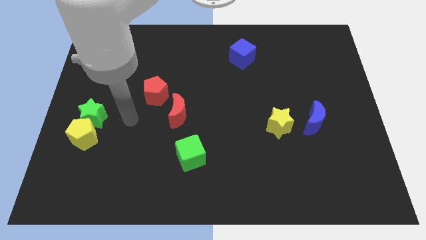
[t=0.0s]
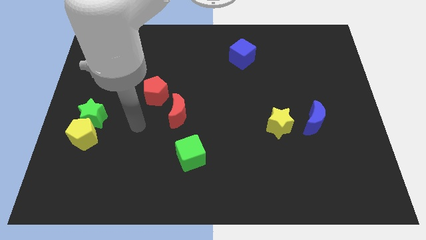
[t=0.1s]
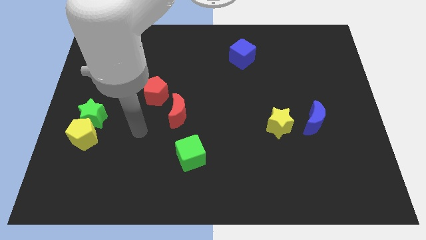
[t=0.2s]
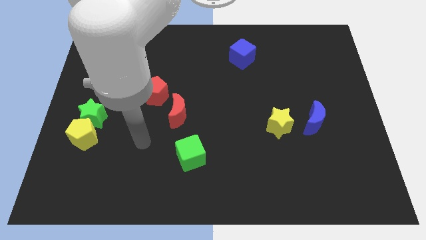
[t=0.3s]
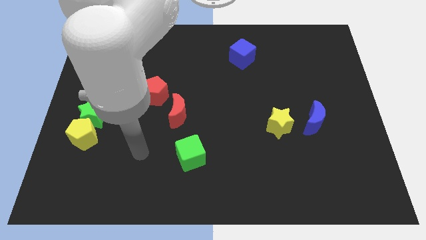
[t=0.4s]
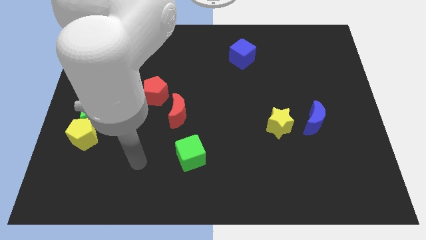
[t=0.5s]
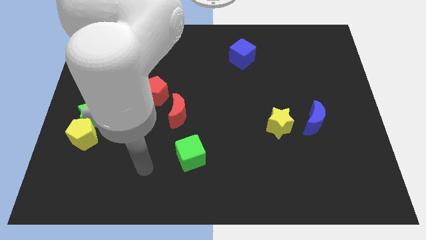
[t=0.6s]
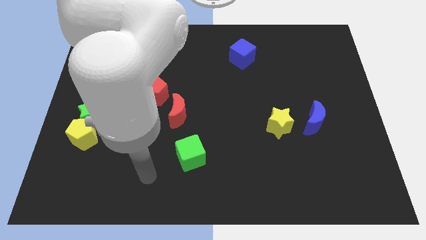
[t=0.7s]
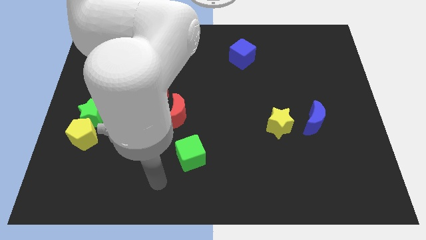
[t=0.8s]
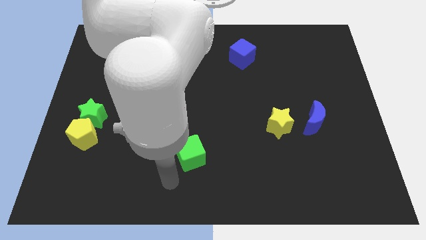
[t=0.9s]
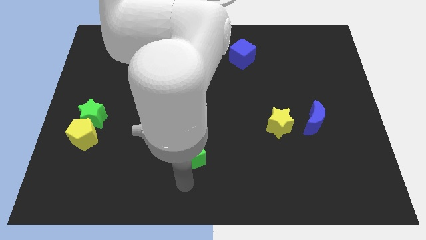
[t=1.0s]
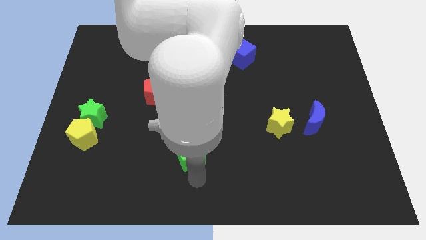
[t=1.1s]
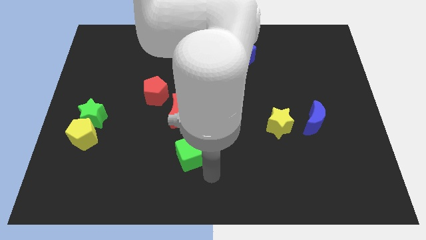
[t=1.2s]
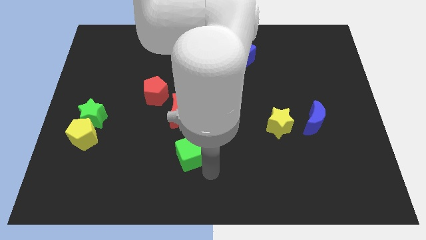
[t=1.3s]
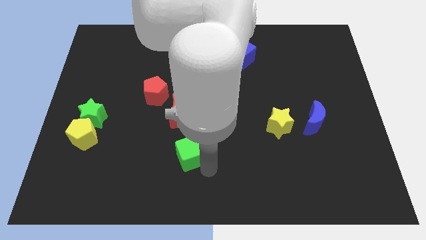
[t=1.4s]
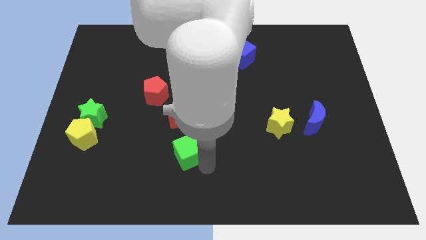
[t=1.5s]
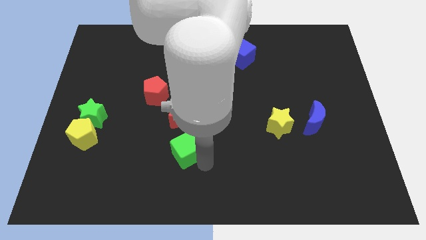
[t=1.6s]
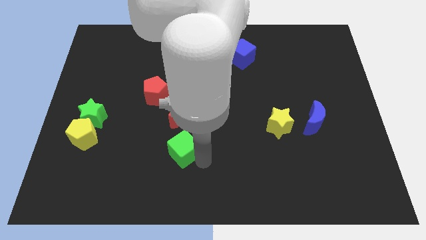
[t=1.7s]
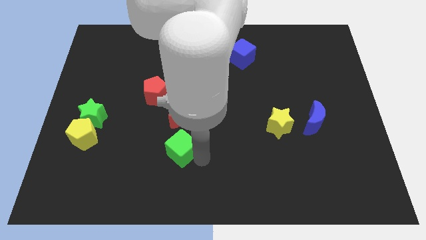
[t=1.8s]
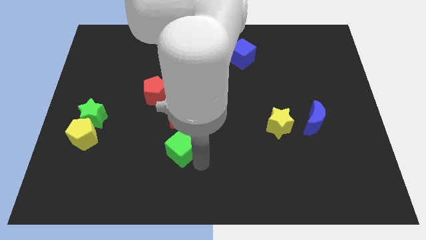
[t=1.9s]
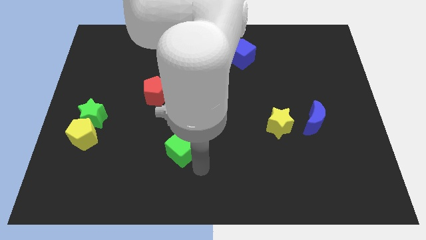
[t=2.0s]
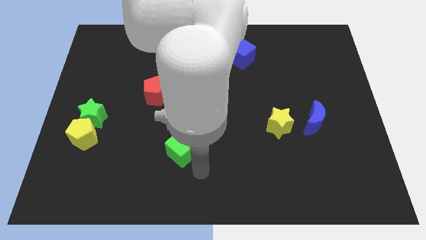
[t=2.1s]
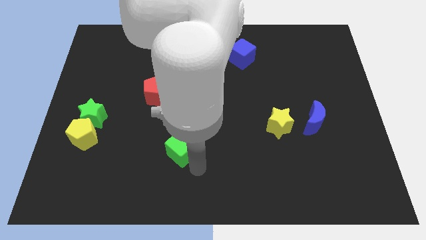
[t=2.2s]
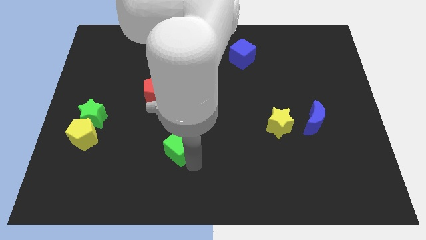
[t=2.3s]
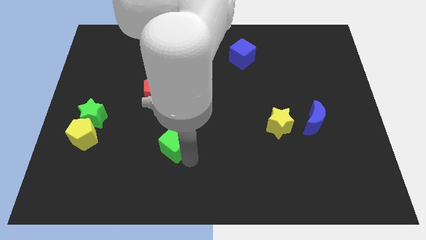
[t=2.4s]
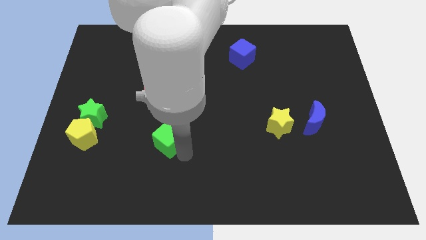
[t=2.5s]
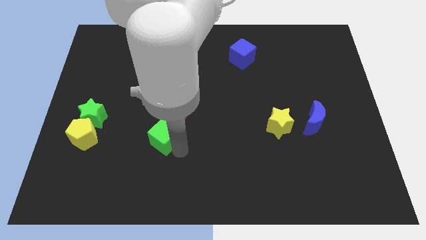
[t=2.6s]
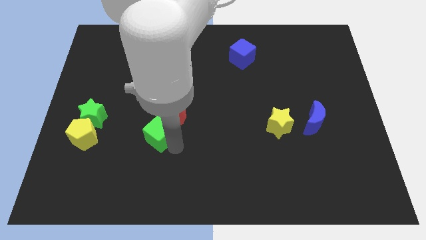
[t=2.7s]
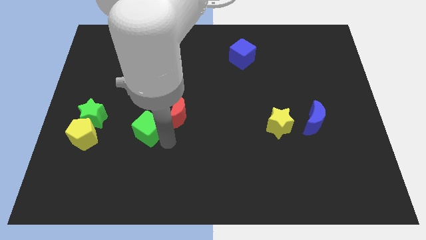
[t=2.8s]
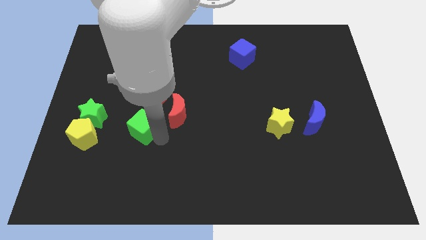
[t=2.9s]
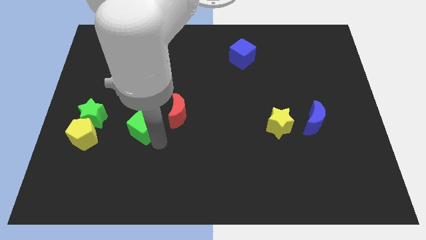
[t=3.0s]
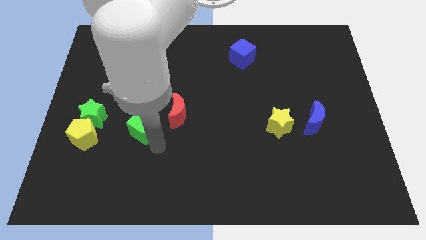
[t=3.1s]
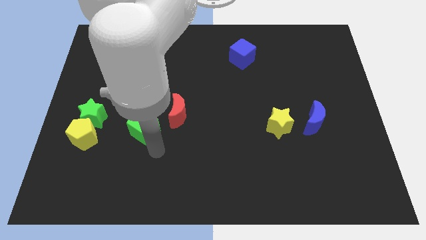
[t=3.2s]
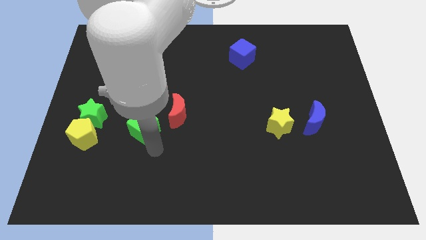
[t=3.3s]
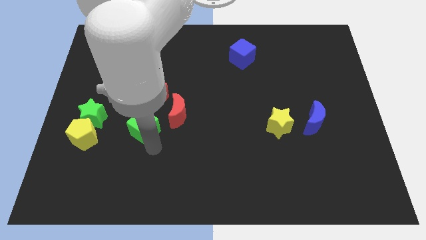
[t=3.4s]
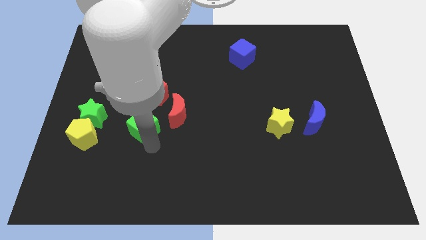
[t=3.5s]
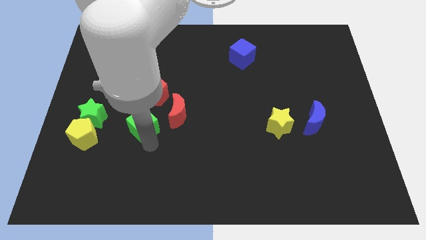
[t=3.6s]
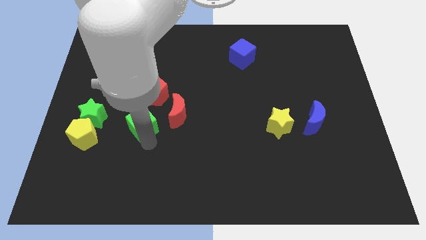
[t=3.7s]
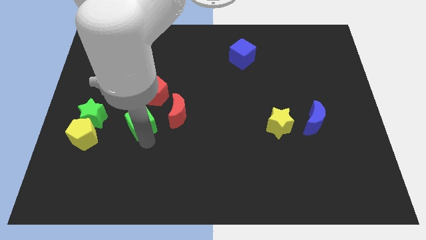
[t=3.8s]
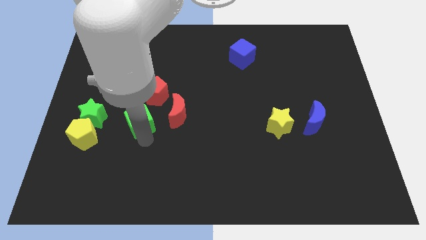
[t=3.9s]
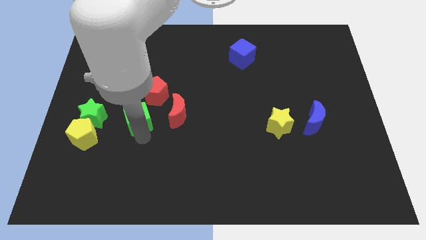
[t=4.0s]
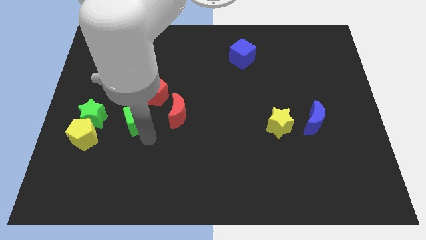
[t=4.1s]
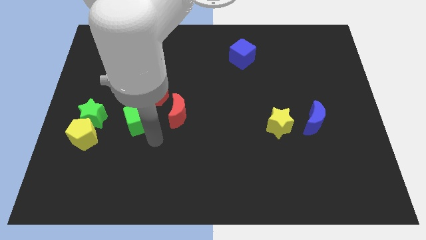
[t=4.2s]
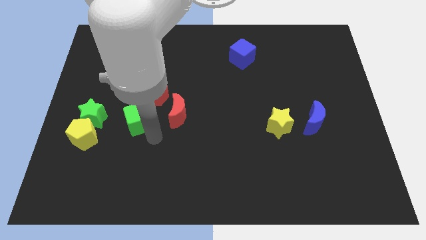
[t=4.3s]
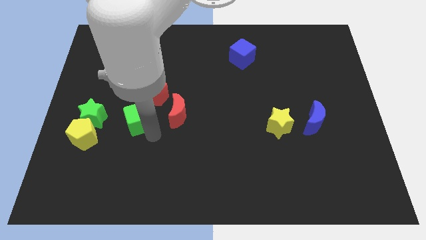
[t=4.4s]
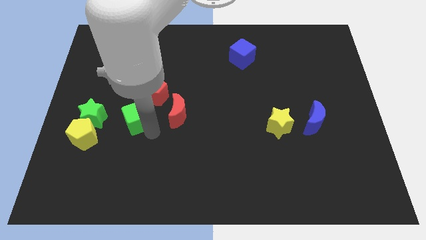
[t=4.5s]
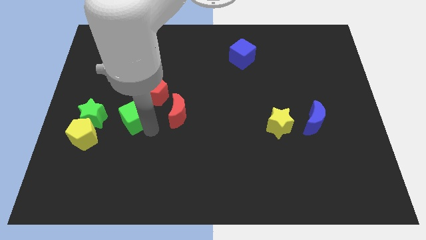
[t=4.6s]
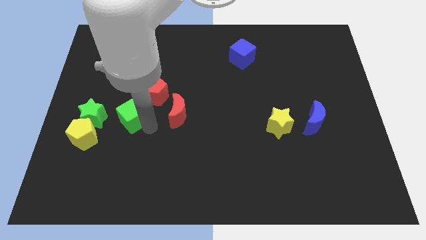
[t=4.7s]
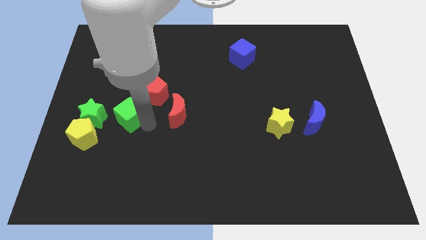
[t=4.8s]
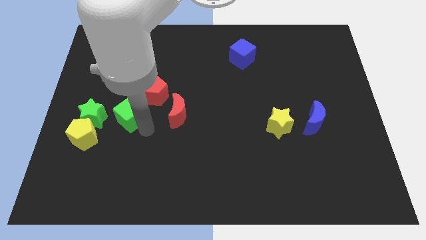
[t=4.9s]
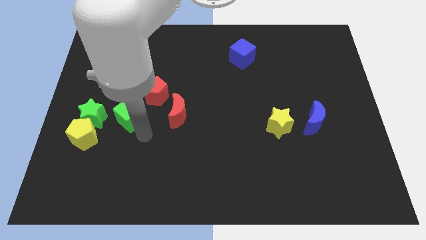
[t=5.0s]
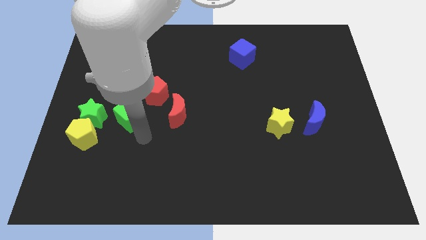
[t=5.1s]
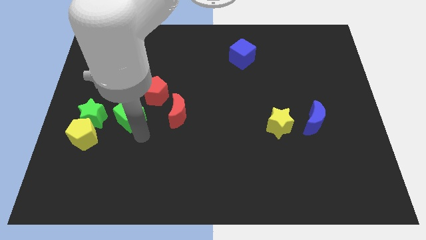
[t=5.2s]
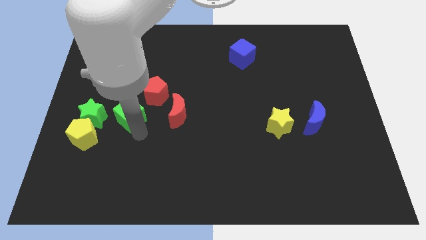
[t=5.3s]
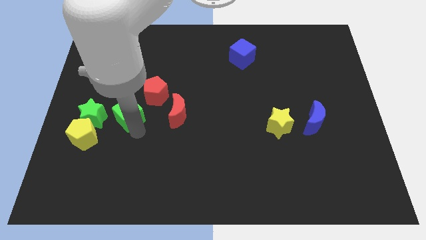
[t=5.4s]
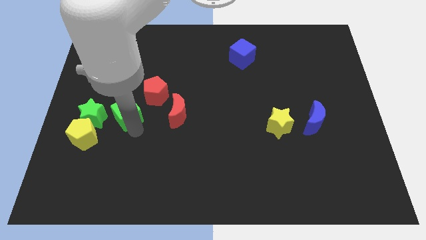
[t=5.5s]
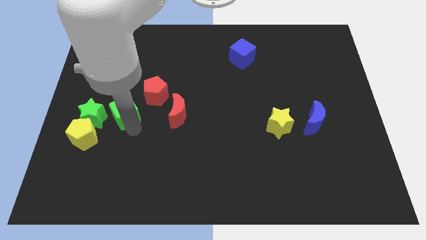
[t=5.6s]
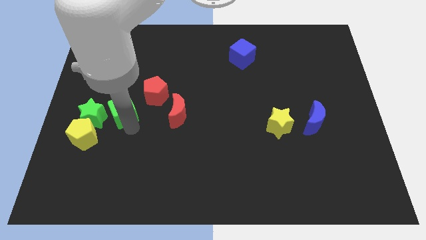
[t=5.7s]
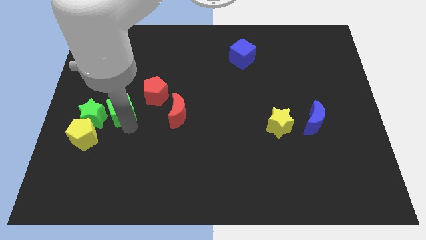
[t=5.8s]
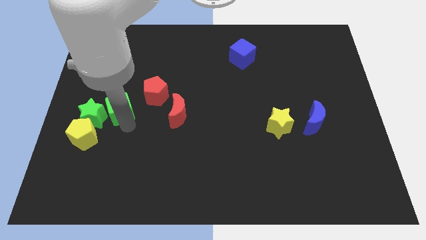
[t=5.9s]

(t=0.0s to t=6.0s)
push the green cube up and then to the left

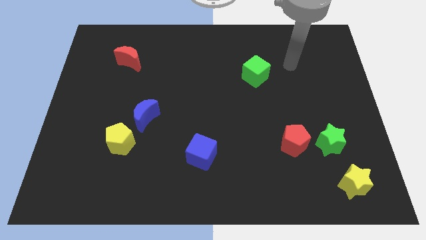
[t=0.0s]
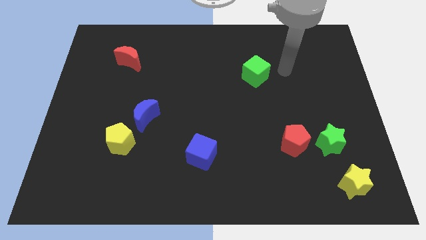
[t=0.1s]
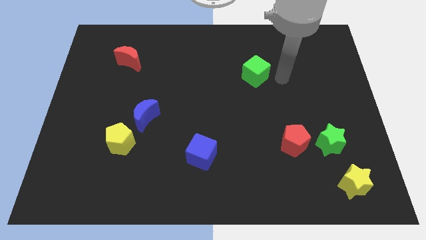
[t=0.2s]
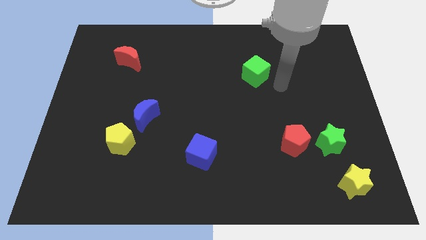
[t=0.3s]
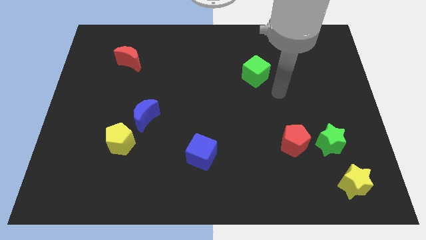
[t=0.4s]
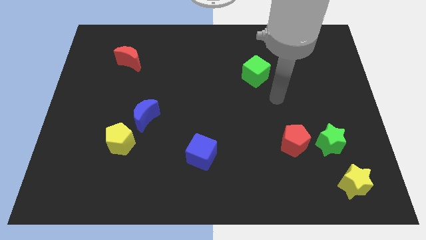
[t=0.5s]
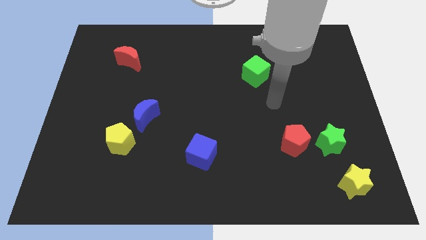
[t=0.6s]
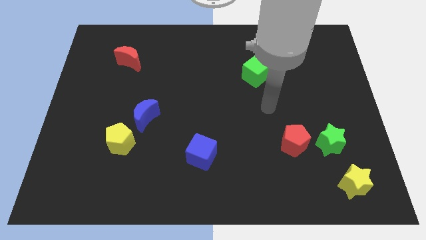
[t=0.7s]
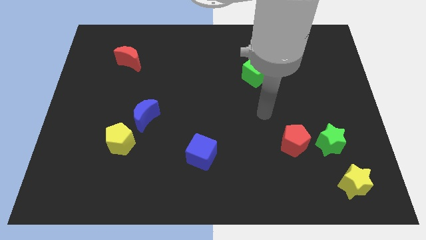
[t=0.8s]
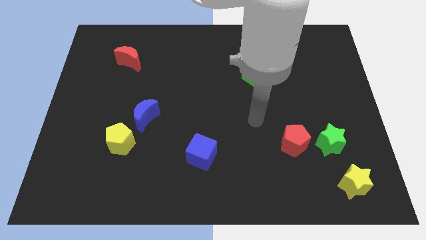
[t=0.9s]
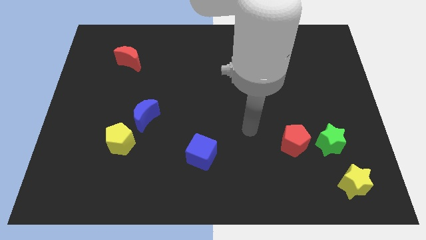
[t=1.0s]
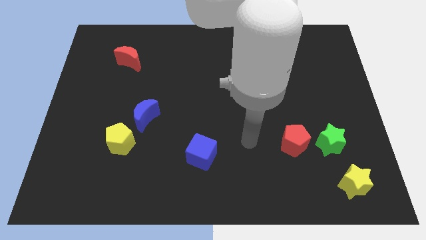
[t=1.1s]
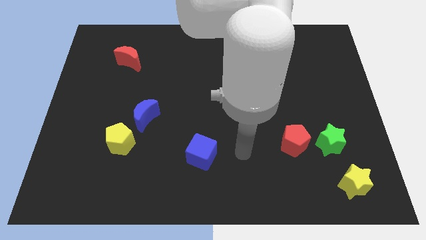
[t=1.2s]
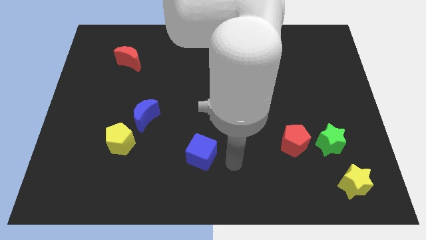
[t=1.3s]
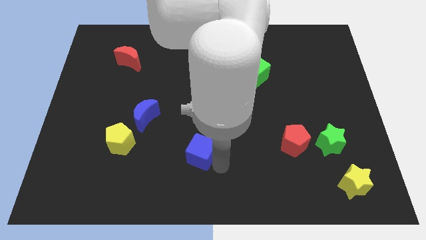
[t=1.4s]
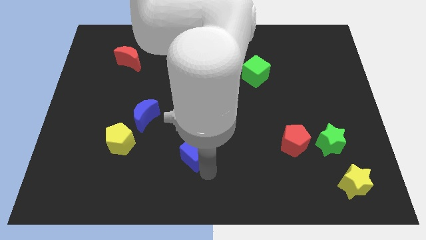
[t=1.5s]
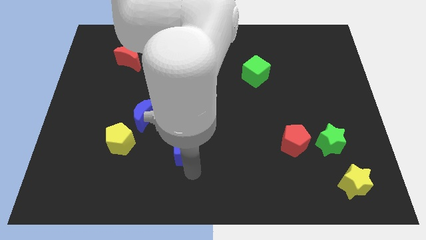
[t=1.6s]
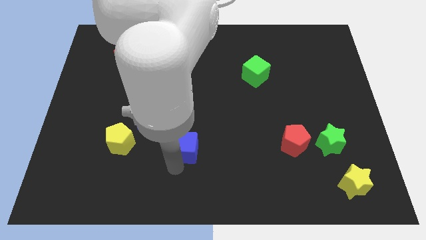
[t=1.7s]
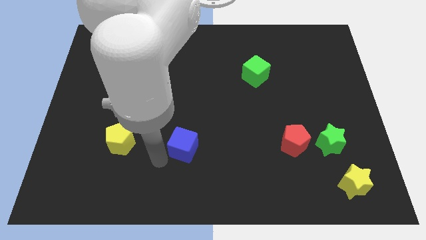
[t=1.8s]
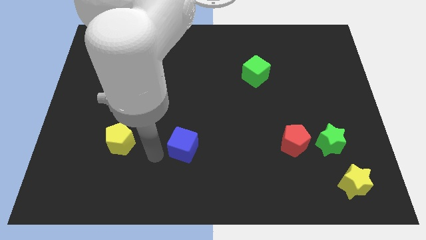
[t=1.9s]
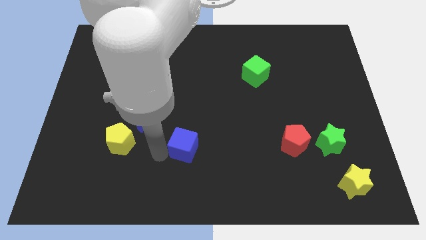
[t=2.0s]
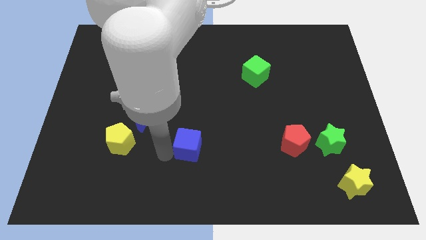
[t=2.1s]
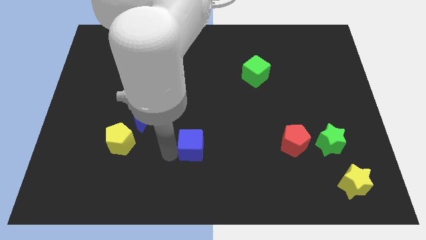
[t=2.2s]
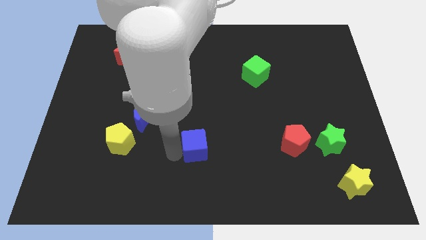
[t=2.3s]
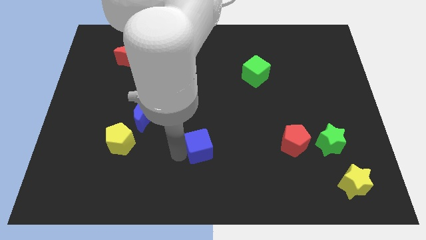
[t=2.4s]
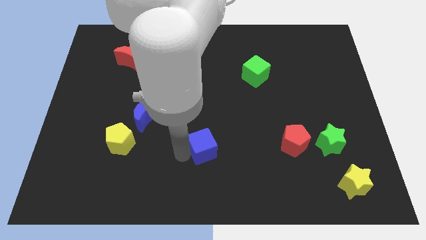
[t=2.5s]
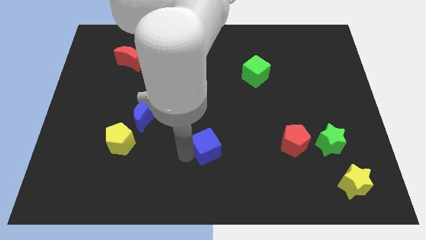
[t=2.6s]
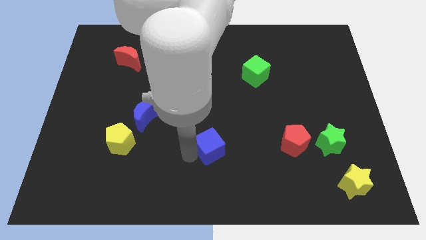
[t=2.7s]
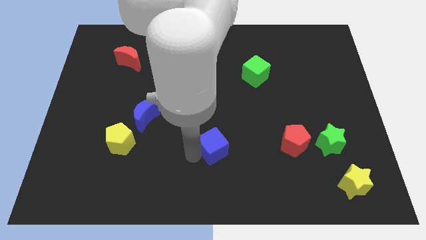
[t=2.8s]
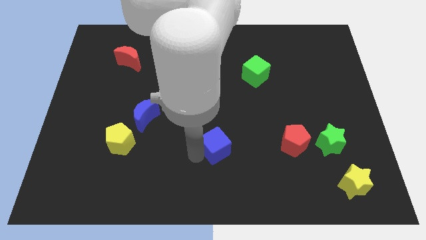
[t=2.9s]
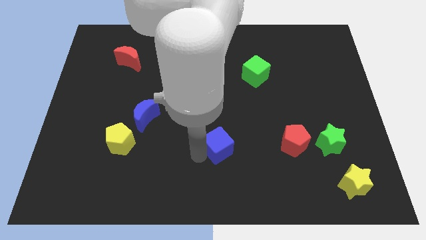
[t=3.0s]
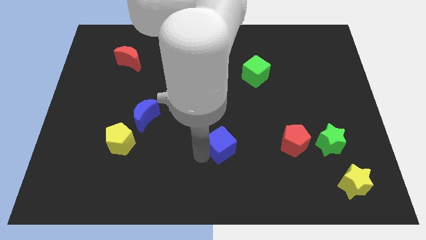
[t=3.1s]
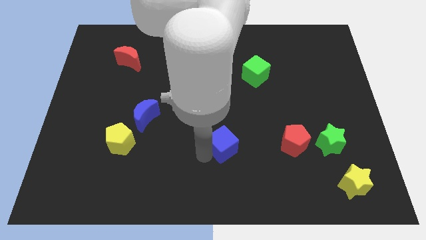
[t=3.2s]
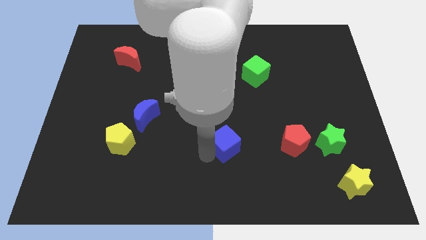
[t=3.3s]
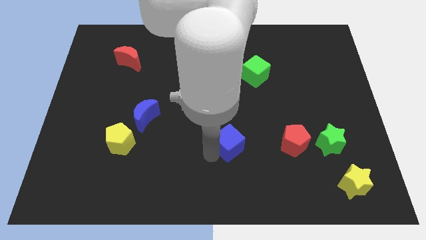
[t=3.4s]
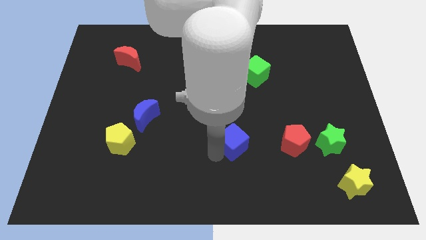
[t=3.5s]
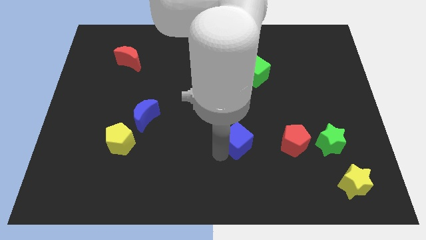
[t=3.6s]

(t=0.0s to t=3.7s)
move the blue cube a little bit upwards and then right
